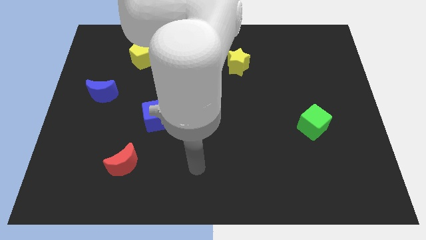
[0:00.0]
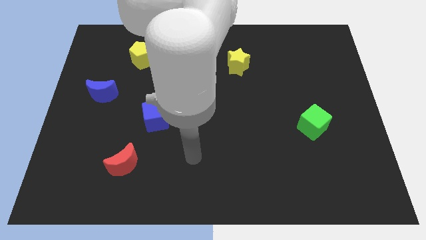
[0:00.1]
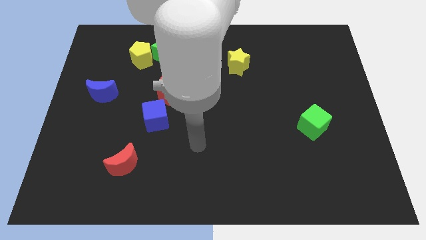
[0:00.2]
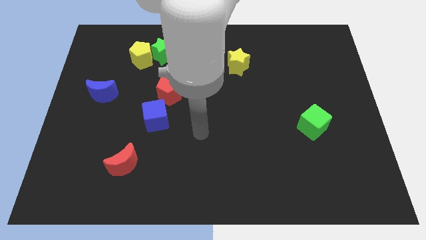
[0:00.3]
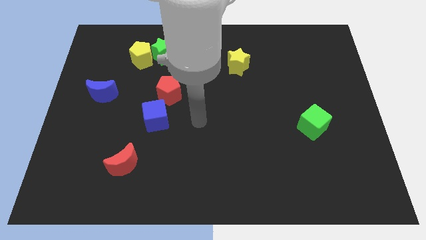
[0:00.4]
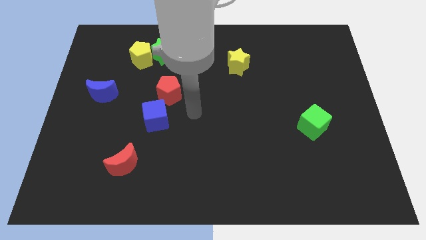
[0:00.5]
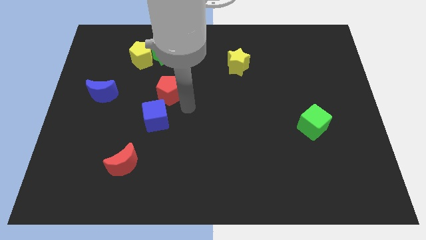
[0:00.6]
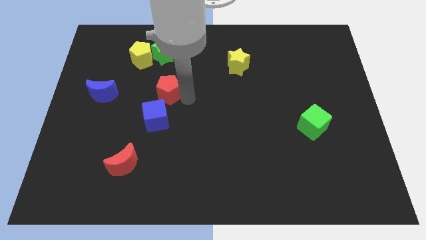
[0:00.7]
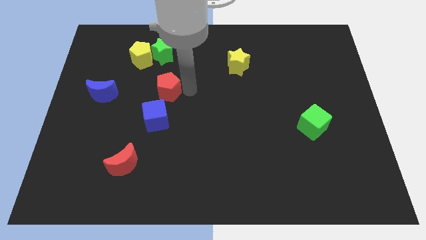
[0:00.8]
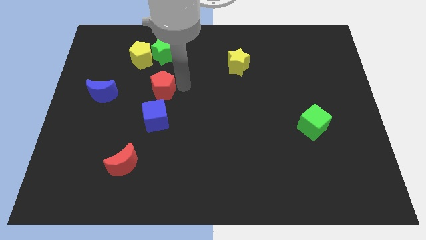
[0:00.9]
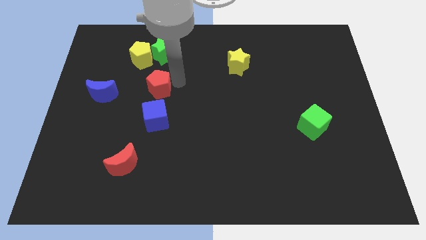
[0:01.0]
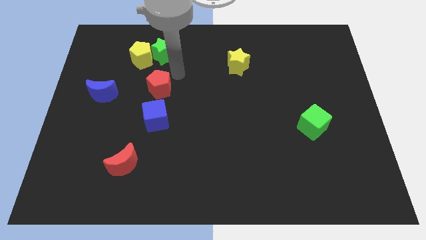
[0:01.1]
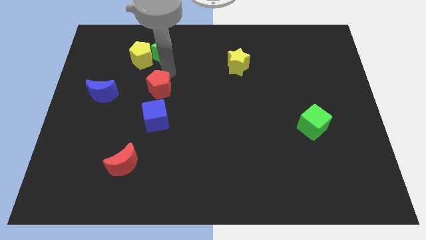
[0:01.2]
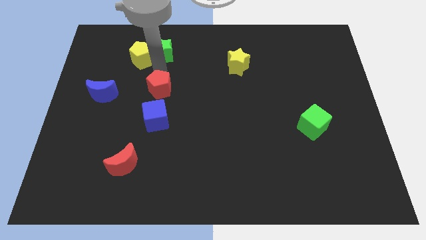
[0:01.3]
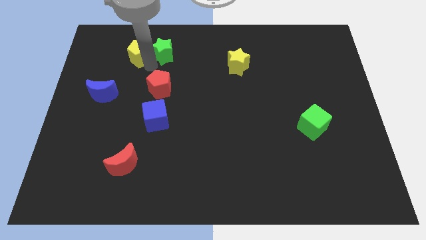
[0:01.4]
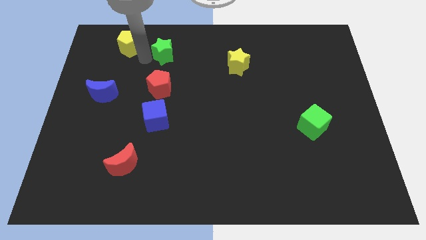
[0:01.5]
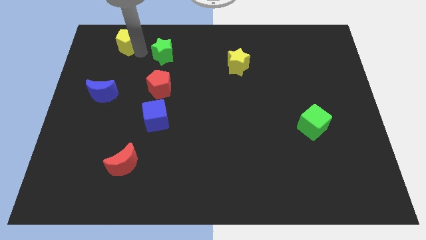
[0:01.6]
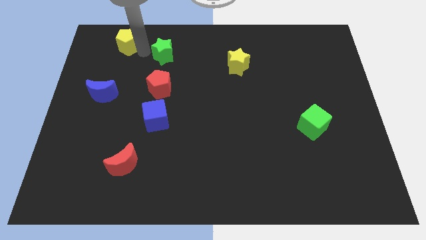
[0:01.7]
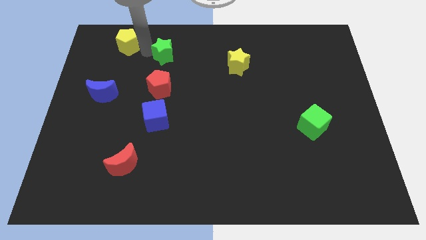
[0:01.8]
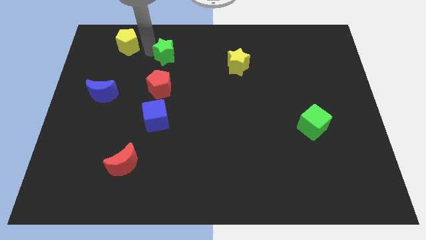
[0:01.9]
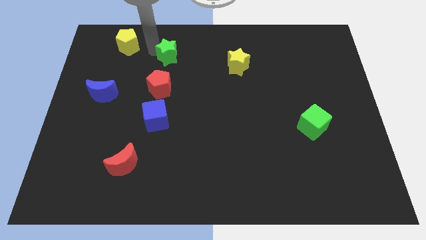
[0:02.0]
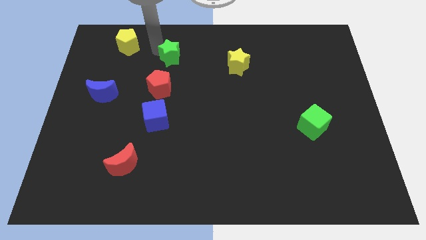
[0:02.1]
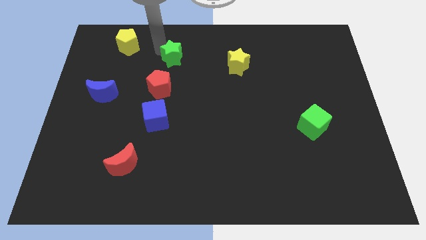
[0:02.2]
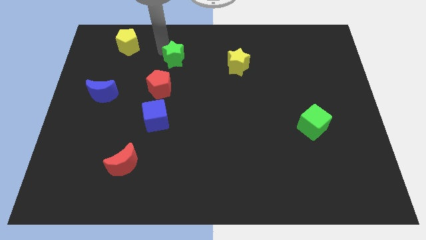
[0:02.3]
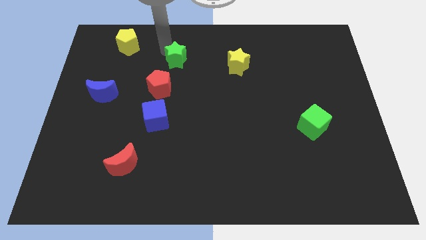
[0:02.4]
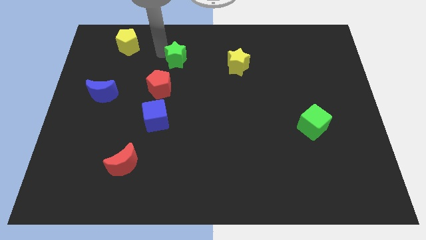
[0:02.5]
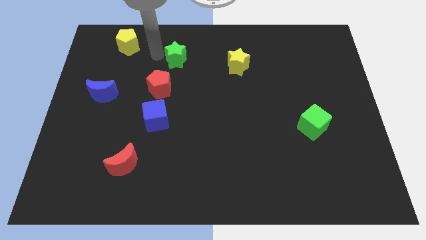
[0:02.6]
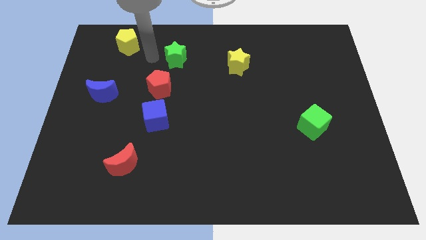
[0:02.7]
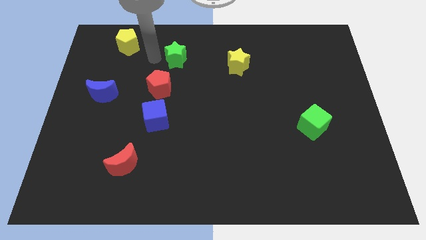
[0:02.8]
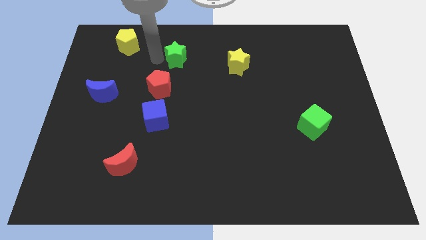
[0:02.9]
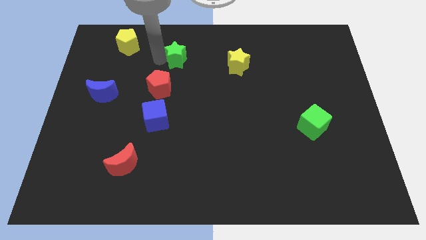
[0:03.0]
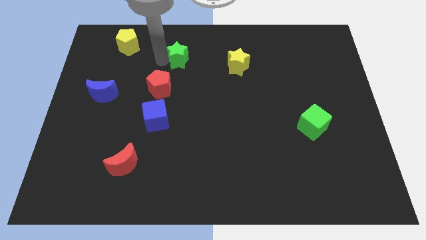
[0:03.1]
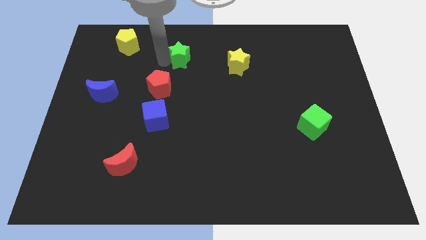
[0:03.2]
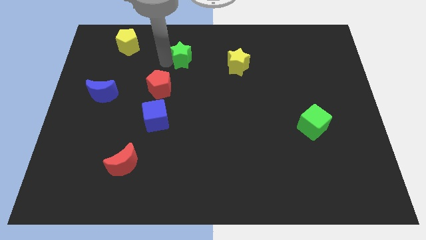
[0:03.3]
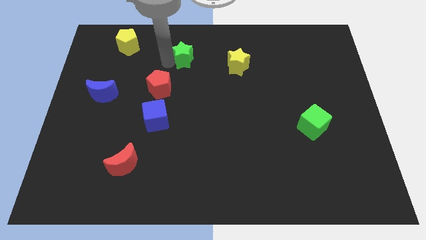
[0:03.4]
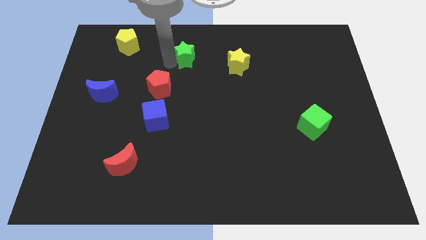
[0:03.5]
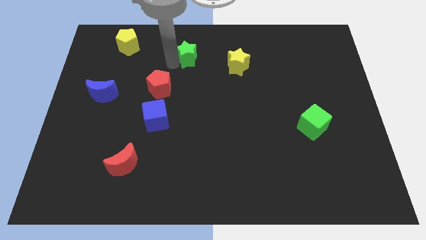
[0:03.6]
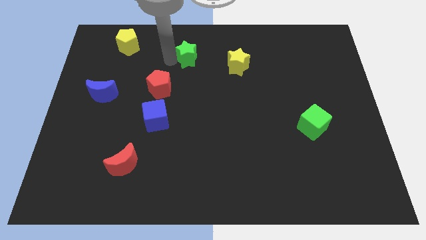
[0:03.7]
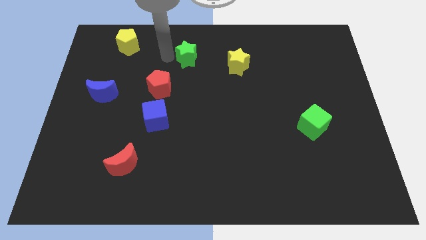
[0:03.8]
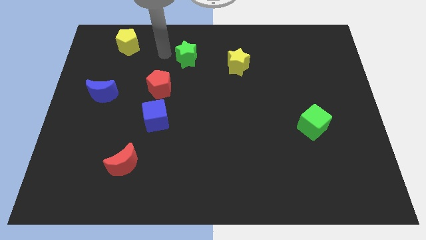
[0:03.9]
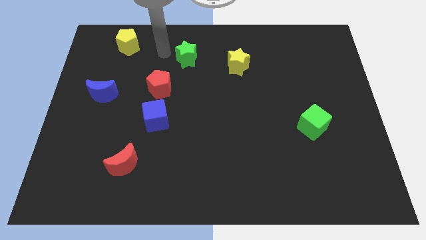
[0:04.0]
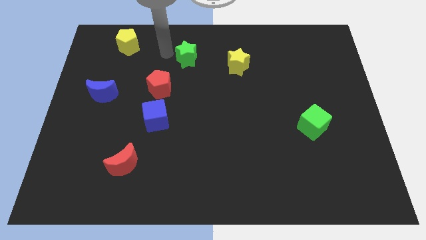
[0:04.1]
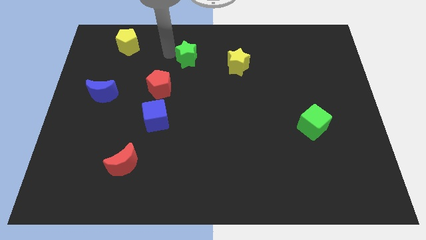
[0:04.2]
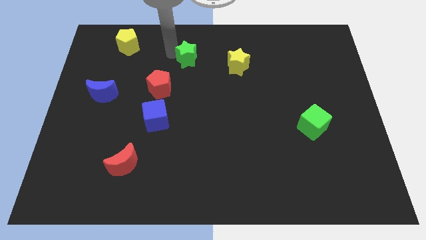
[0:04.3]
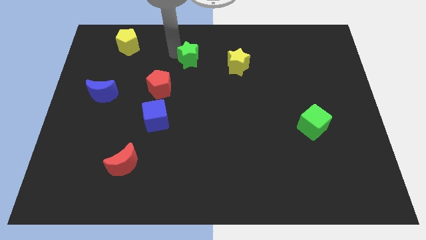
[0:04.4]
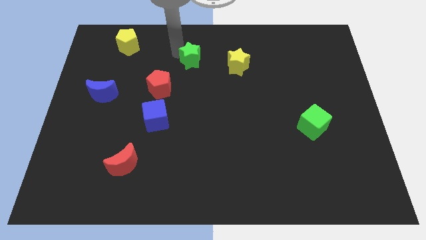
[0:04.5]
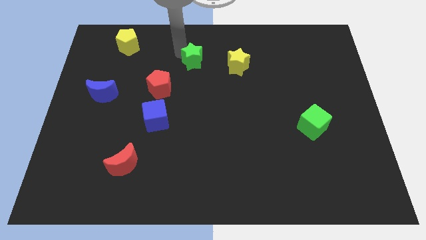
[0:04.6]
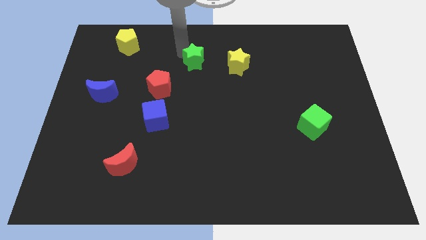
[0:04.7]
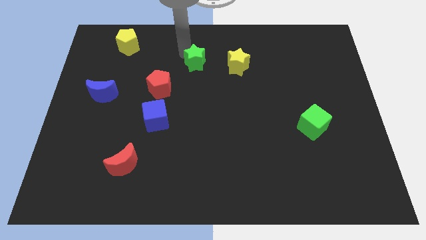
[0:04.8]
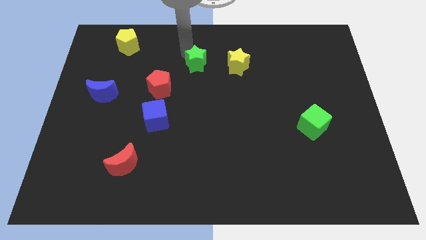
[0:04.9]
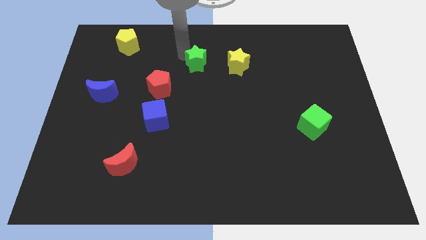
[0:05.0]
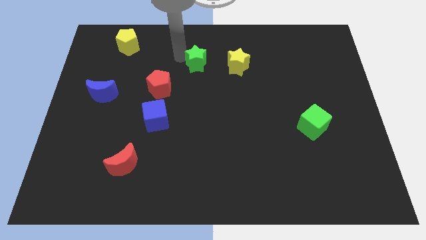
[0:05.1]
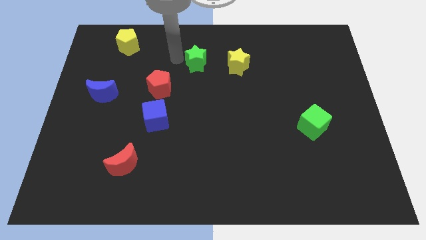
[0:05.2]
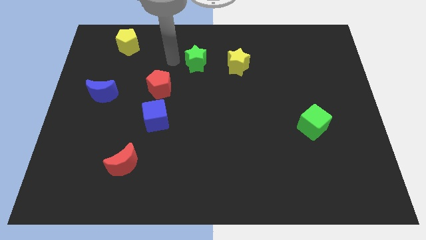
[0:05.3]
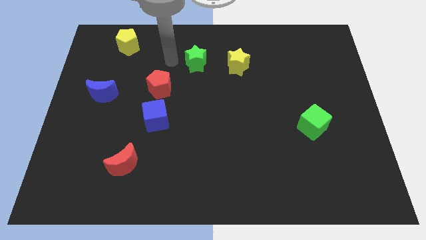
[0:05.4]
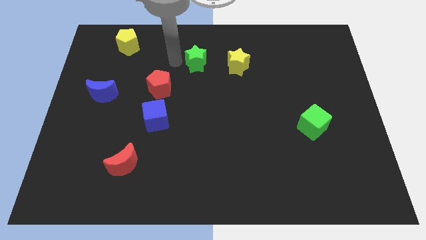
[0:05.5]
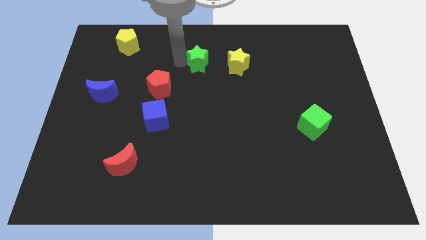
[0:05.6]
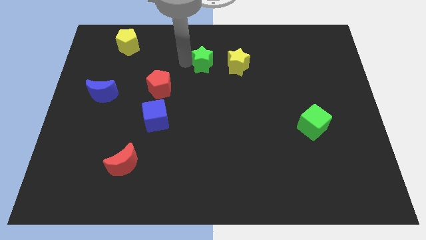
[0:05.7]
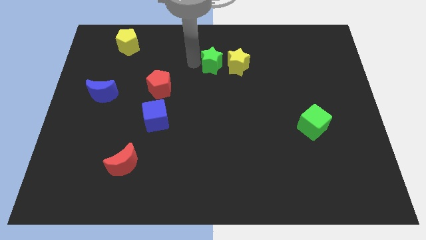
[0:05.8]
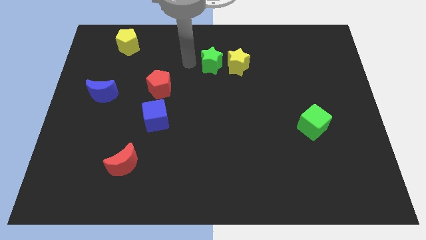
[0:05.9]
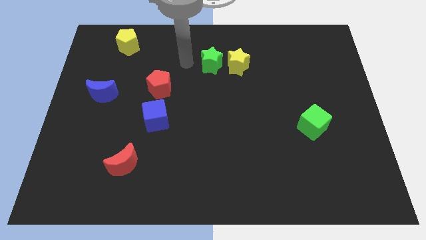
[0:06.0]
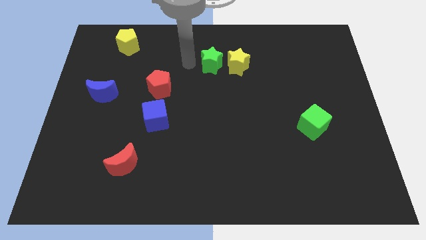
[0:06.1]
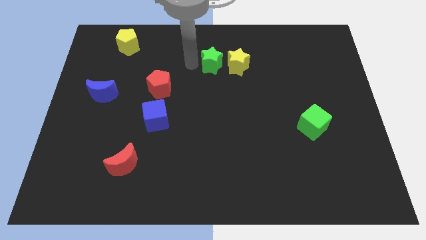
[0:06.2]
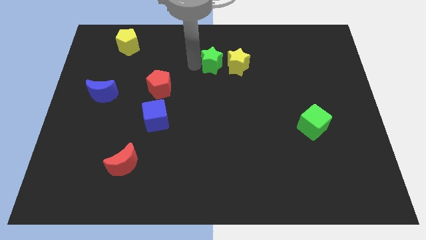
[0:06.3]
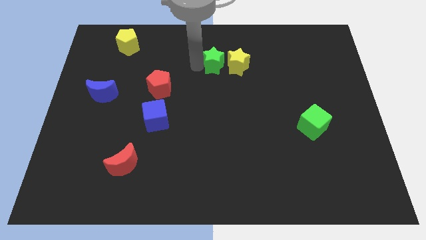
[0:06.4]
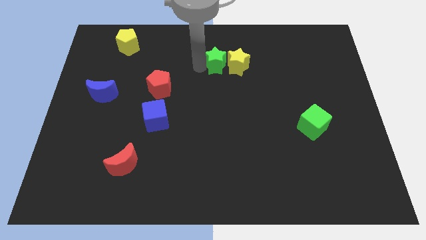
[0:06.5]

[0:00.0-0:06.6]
move the green star to the yellow star
